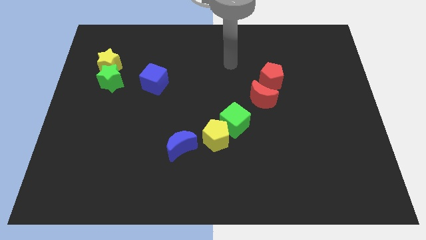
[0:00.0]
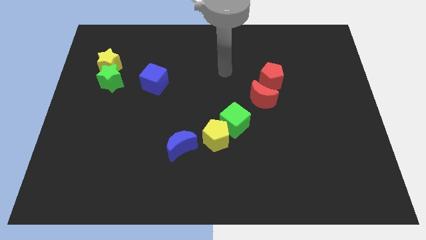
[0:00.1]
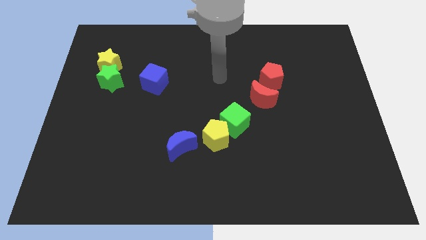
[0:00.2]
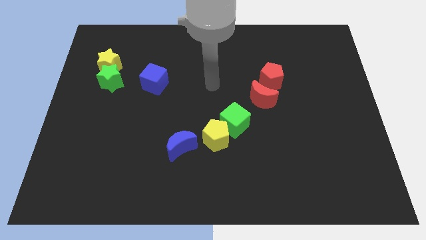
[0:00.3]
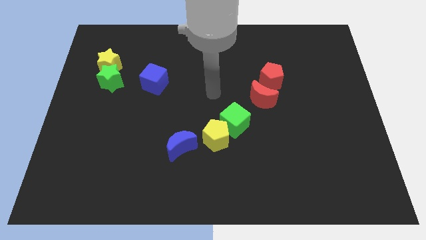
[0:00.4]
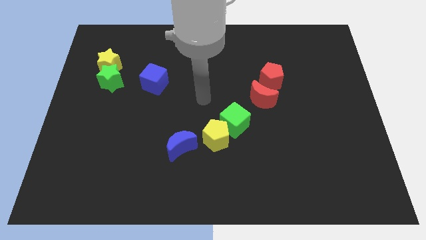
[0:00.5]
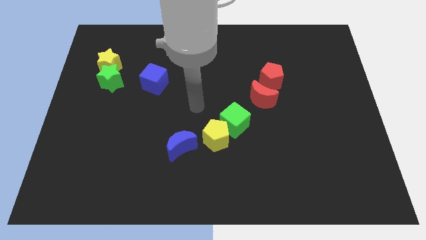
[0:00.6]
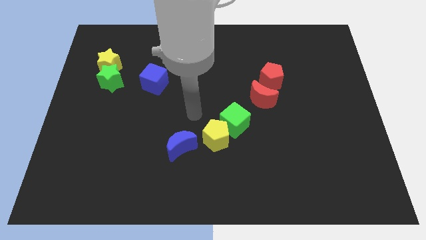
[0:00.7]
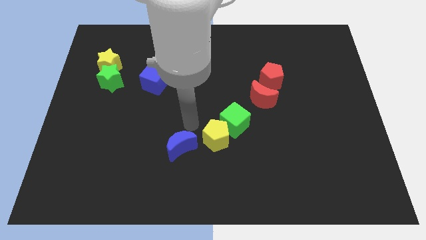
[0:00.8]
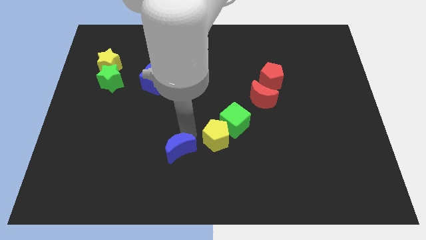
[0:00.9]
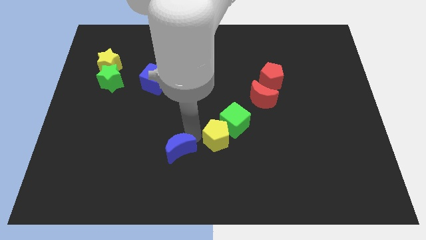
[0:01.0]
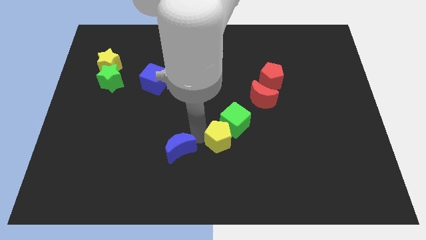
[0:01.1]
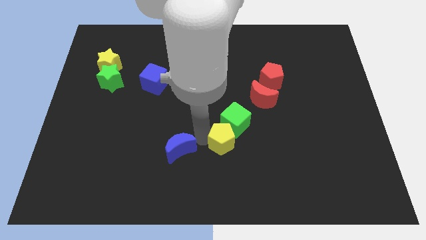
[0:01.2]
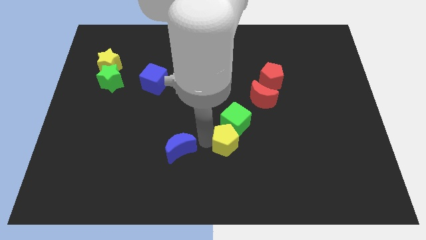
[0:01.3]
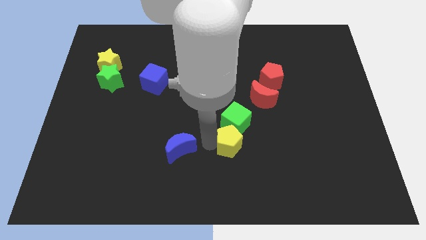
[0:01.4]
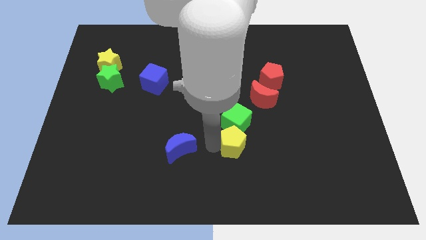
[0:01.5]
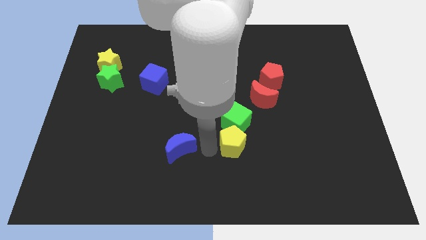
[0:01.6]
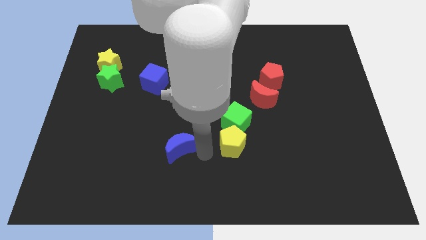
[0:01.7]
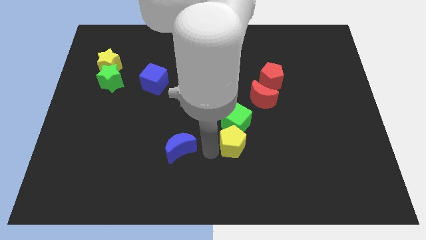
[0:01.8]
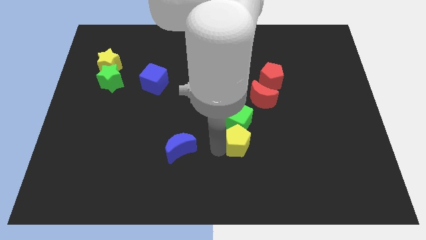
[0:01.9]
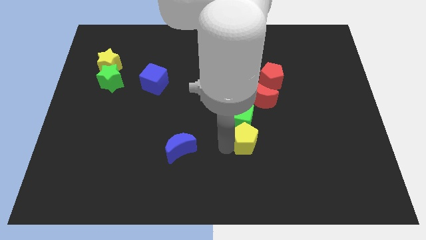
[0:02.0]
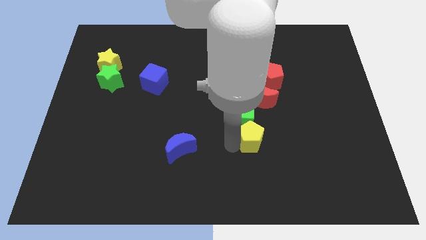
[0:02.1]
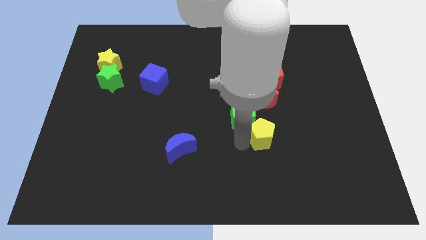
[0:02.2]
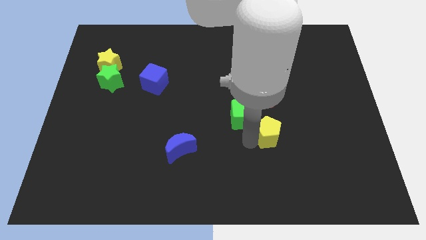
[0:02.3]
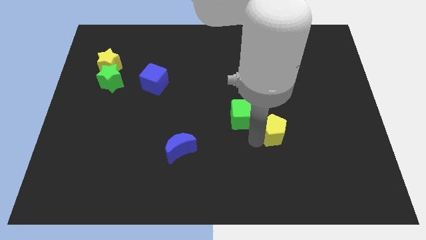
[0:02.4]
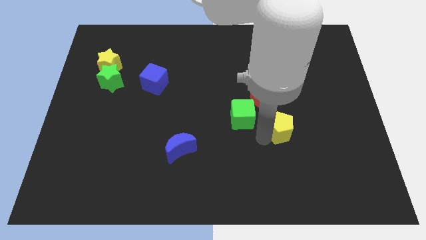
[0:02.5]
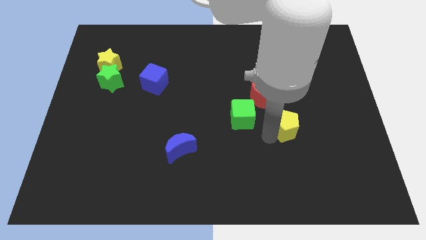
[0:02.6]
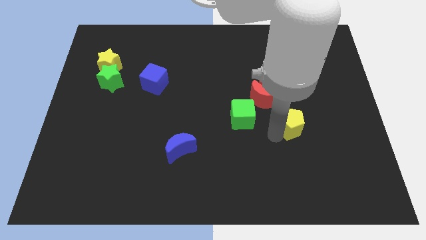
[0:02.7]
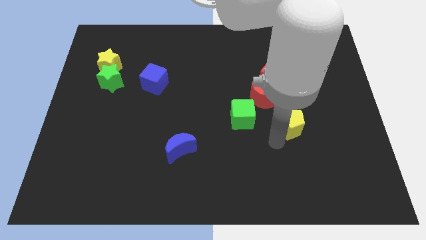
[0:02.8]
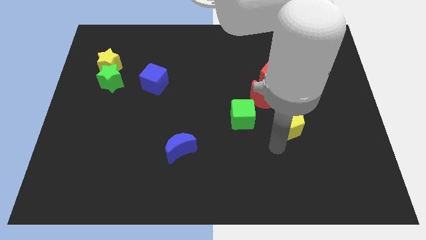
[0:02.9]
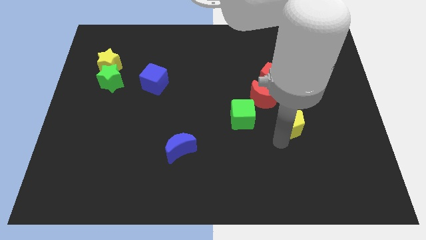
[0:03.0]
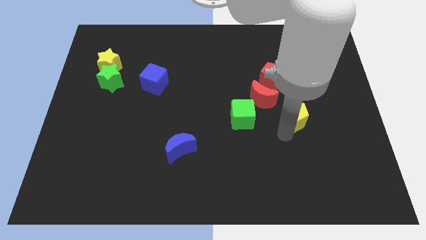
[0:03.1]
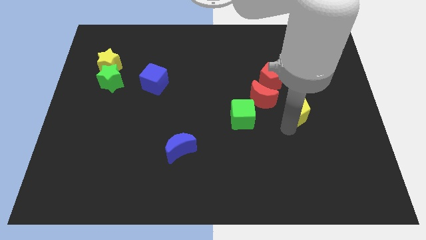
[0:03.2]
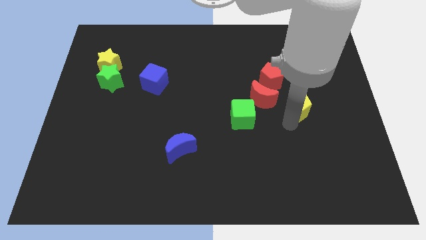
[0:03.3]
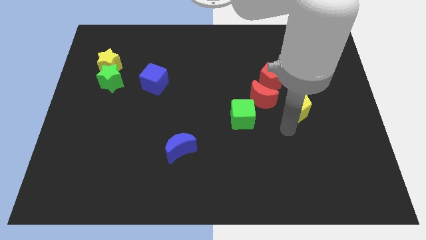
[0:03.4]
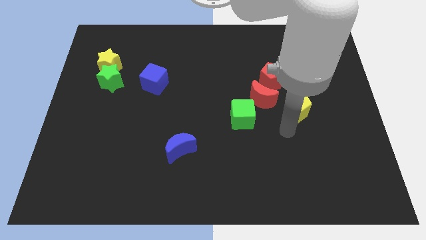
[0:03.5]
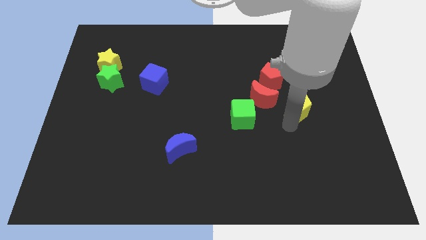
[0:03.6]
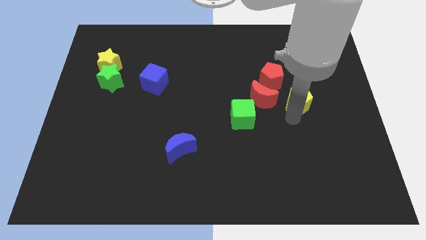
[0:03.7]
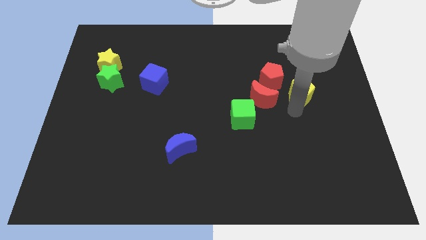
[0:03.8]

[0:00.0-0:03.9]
slide the yellow pentagon diagonally up and right

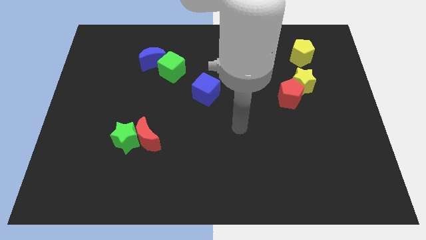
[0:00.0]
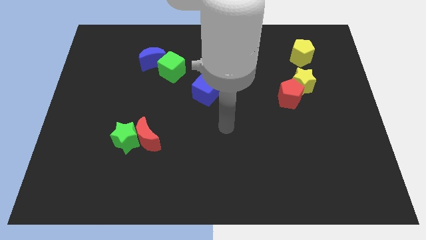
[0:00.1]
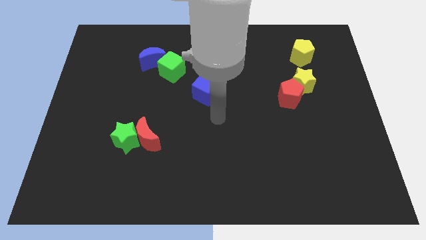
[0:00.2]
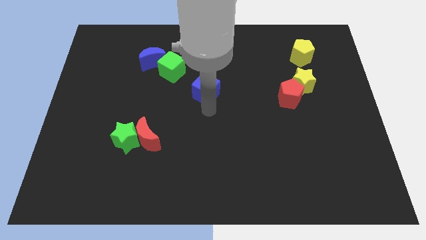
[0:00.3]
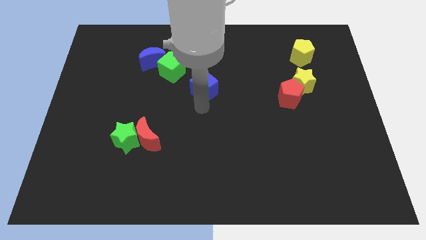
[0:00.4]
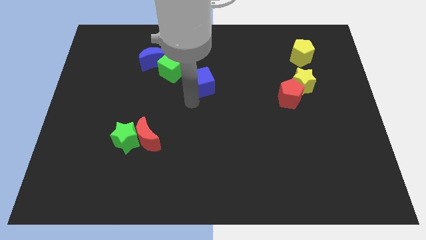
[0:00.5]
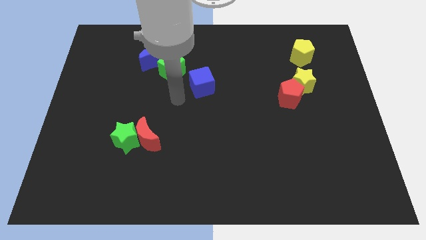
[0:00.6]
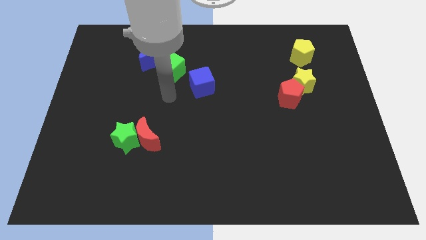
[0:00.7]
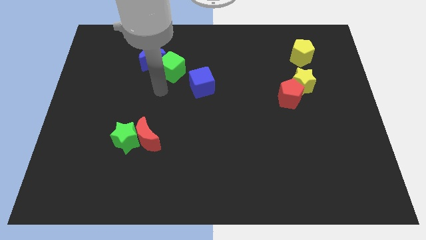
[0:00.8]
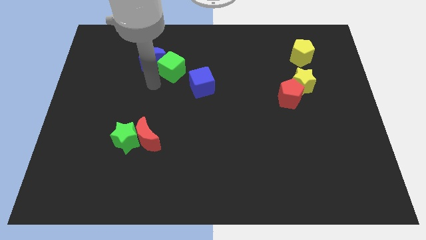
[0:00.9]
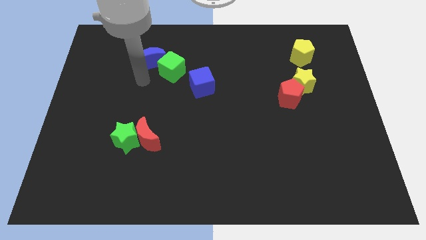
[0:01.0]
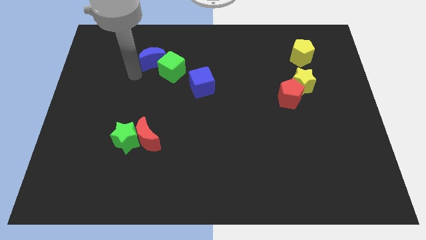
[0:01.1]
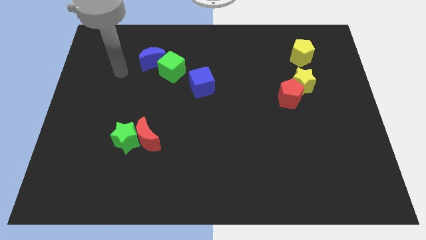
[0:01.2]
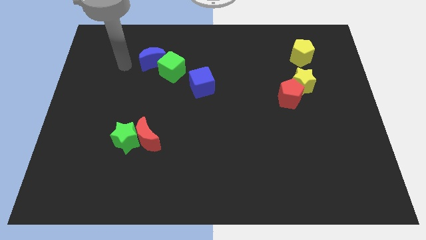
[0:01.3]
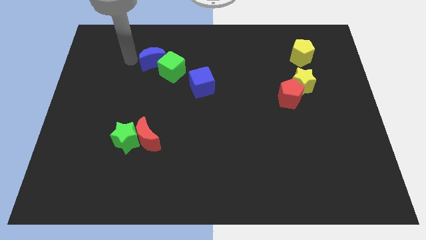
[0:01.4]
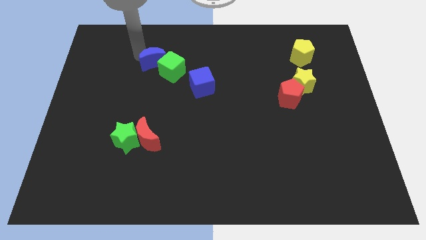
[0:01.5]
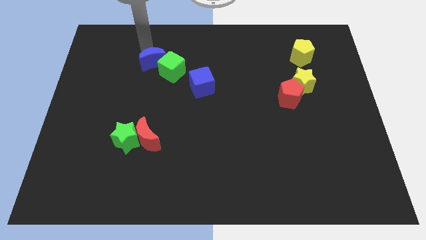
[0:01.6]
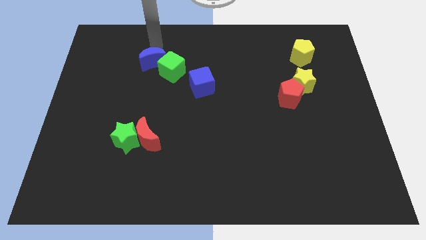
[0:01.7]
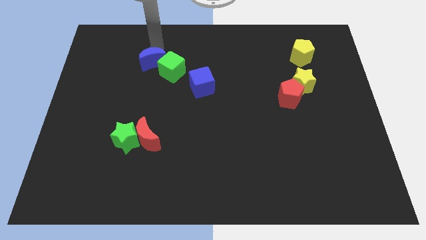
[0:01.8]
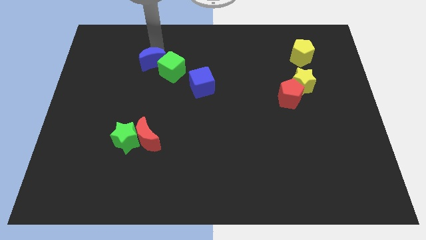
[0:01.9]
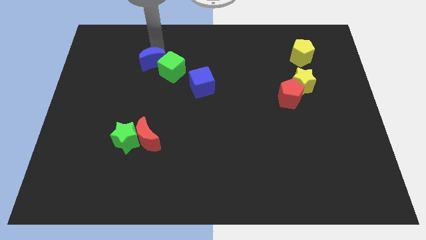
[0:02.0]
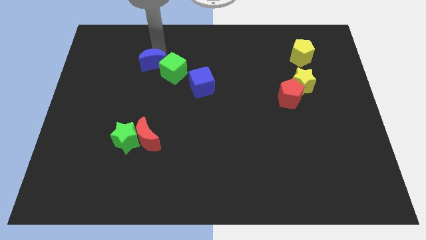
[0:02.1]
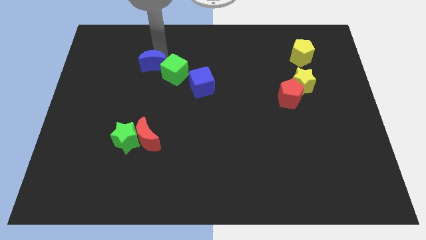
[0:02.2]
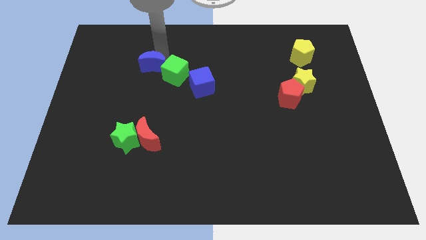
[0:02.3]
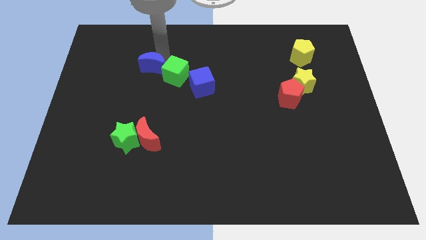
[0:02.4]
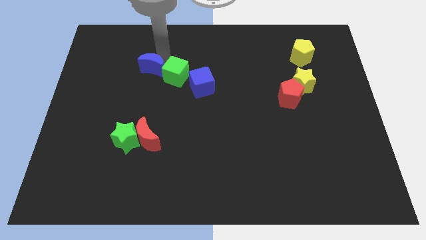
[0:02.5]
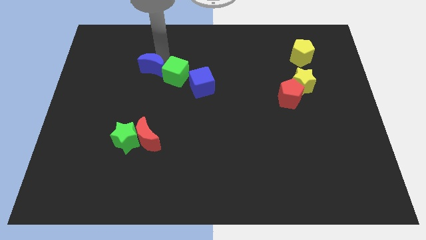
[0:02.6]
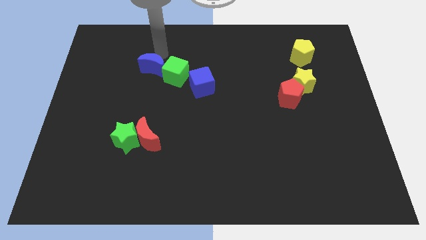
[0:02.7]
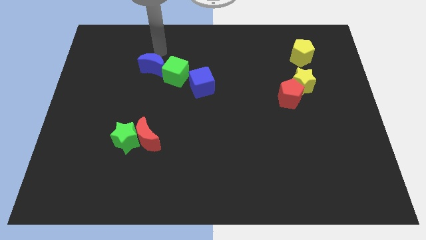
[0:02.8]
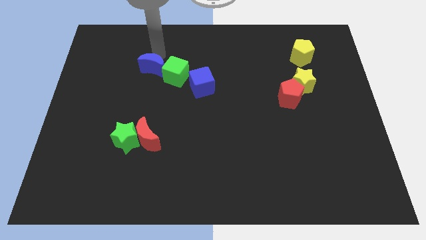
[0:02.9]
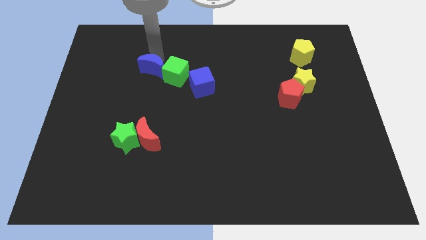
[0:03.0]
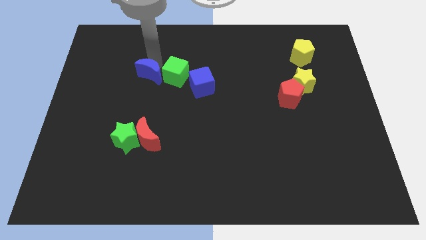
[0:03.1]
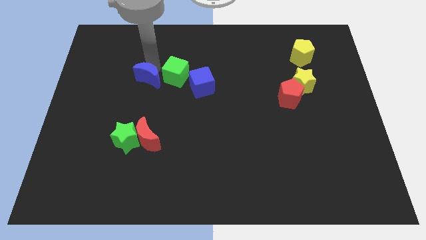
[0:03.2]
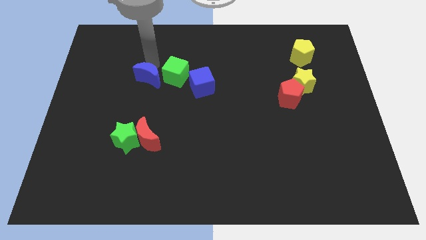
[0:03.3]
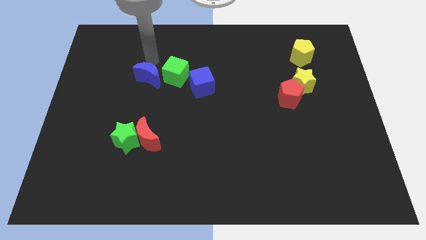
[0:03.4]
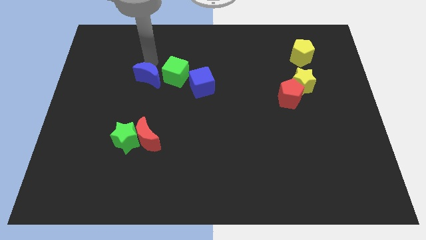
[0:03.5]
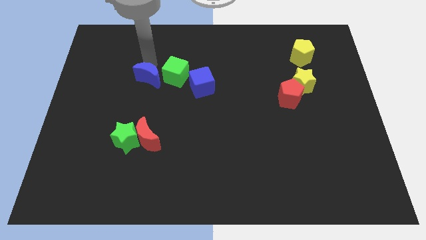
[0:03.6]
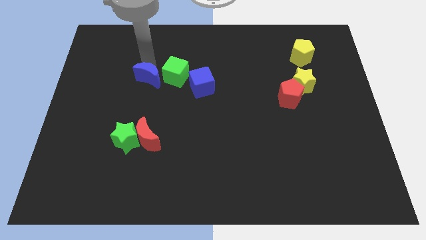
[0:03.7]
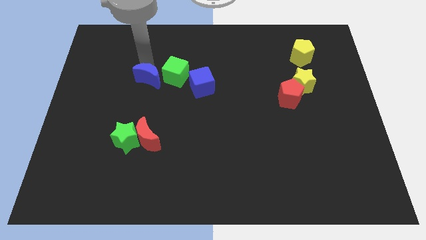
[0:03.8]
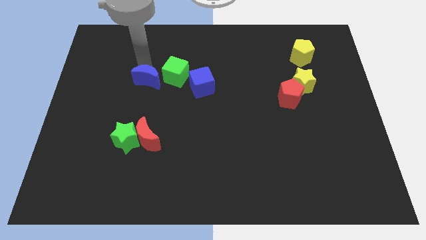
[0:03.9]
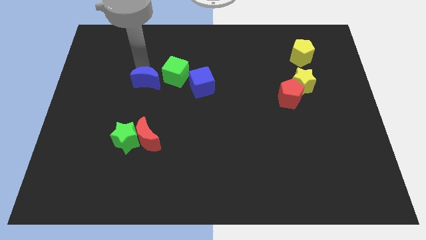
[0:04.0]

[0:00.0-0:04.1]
move the blue moon downwards somewhat

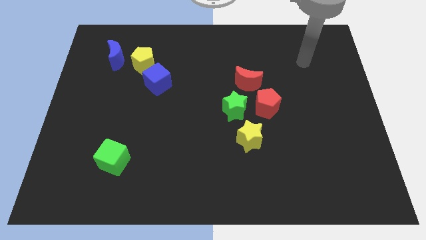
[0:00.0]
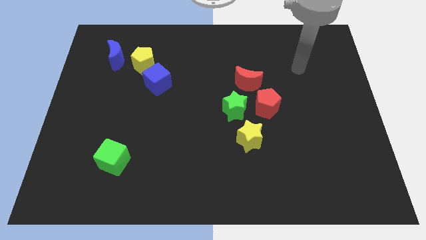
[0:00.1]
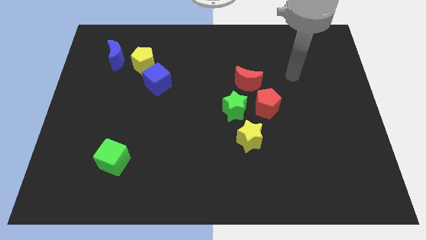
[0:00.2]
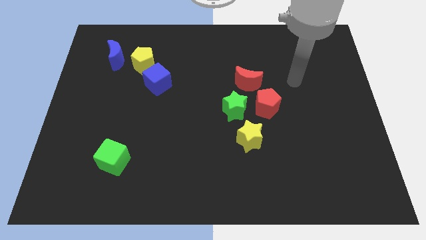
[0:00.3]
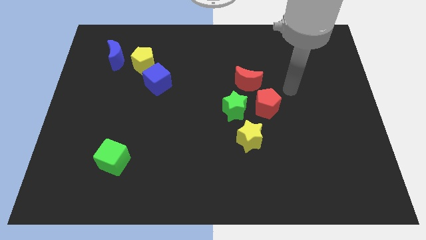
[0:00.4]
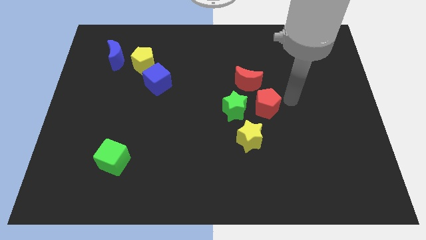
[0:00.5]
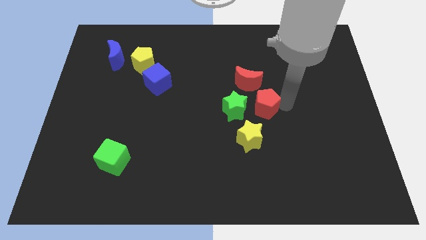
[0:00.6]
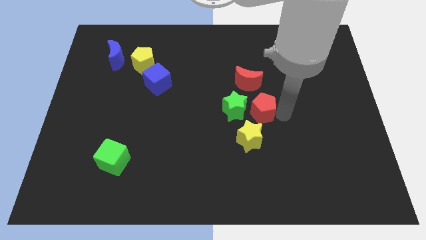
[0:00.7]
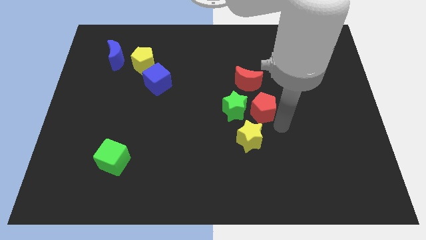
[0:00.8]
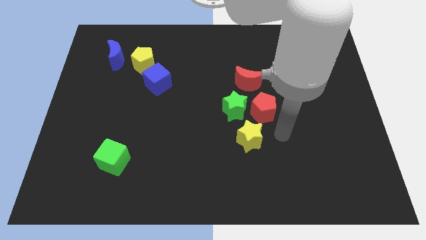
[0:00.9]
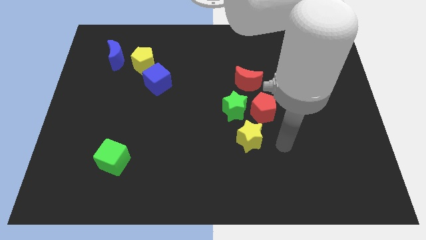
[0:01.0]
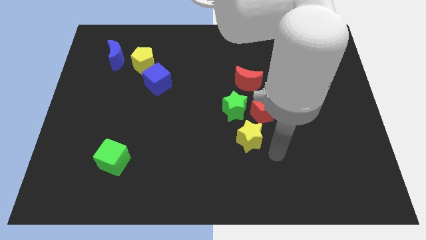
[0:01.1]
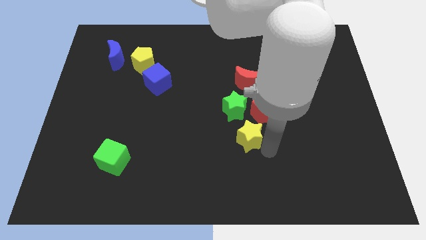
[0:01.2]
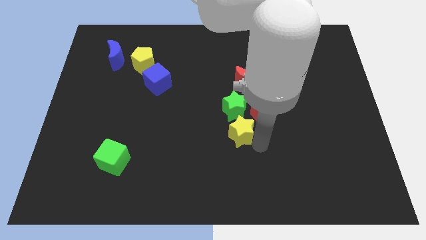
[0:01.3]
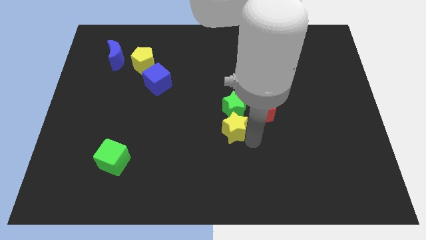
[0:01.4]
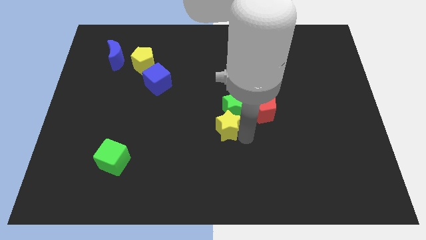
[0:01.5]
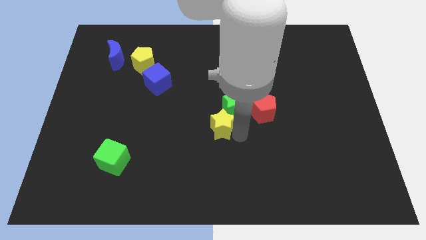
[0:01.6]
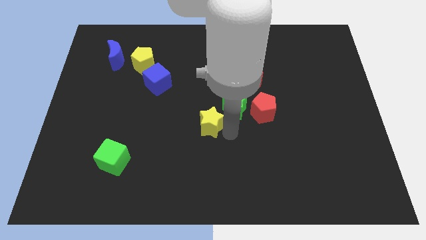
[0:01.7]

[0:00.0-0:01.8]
push the yellow star a bit diagonally up and to the left
